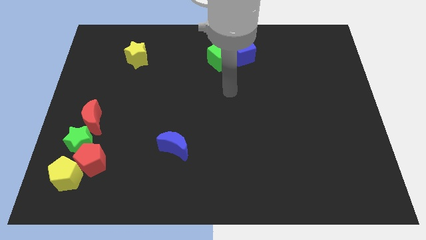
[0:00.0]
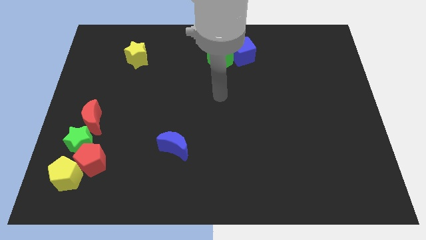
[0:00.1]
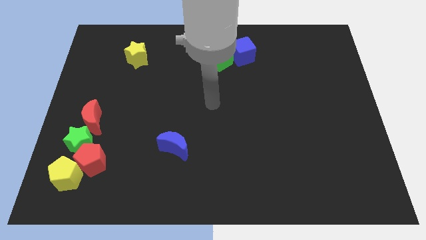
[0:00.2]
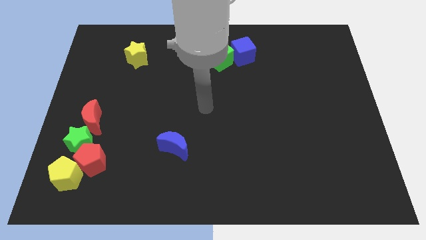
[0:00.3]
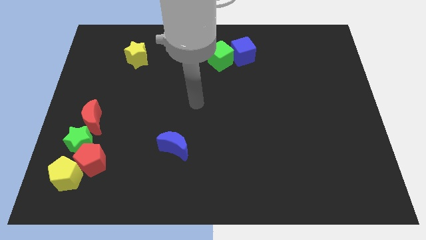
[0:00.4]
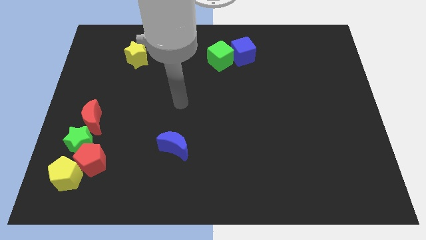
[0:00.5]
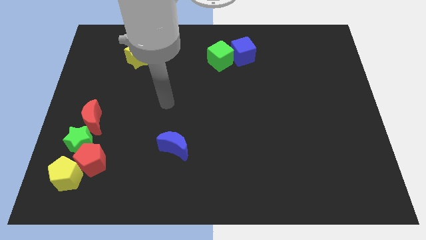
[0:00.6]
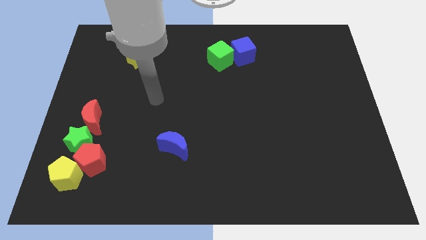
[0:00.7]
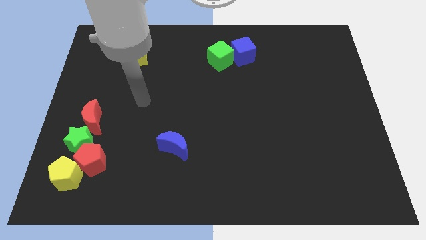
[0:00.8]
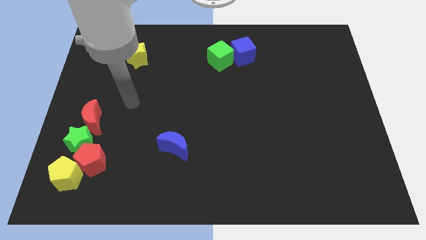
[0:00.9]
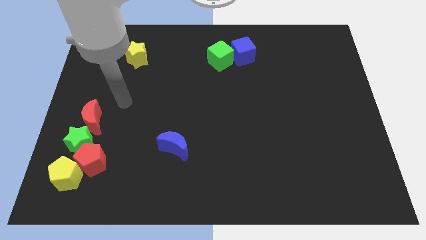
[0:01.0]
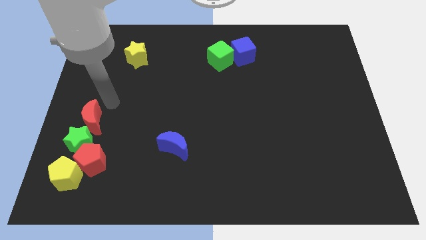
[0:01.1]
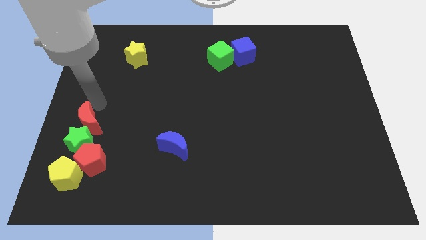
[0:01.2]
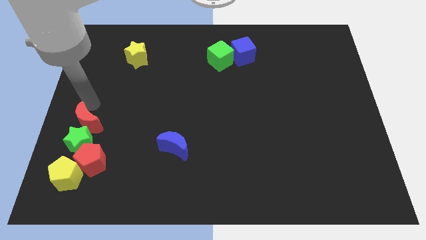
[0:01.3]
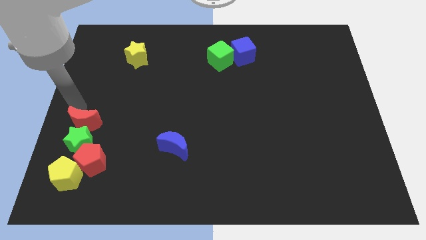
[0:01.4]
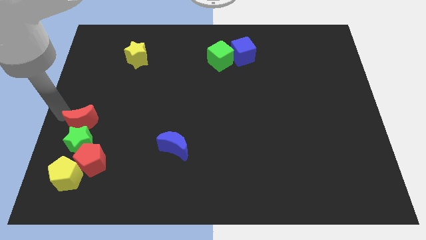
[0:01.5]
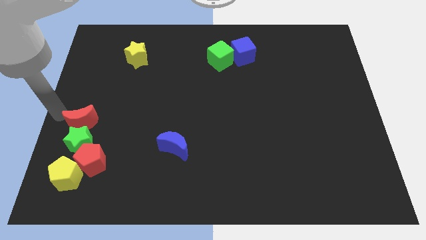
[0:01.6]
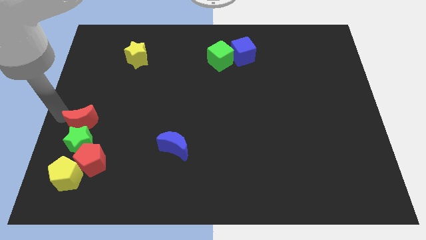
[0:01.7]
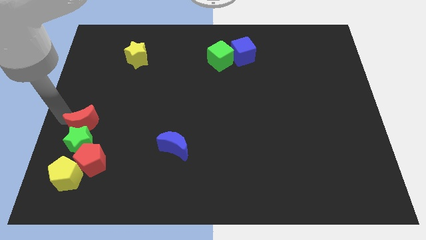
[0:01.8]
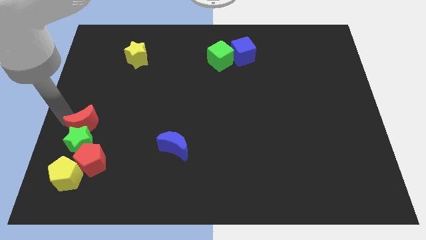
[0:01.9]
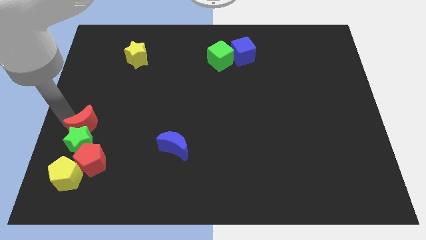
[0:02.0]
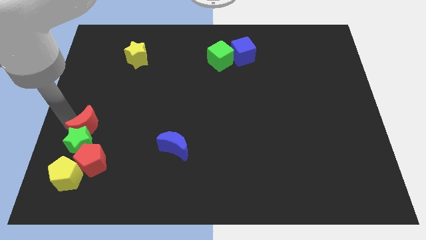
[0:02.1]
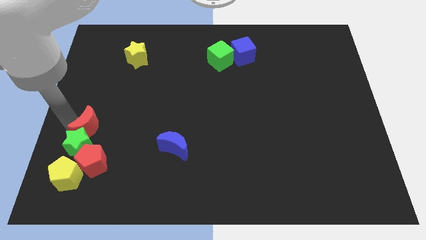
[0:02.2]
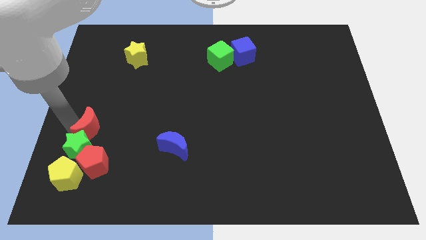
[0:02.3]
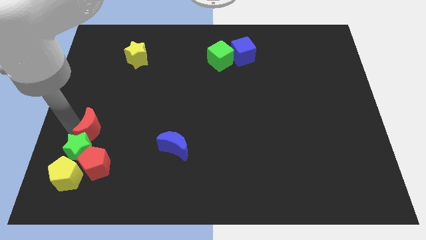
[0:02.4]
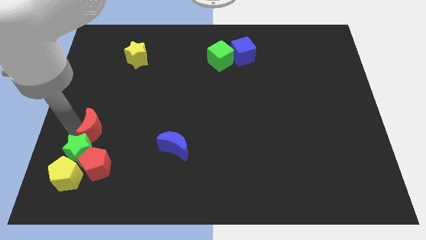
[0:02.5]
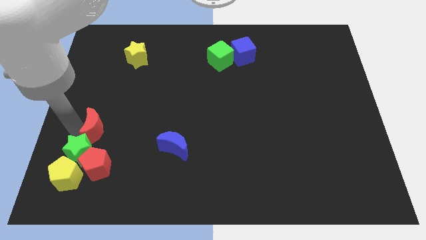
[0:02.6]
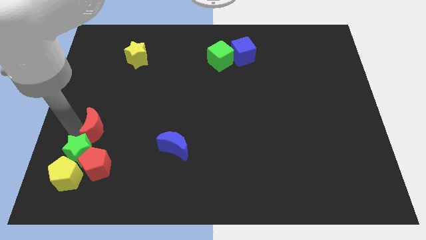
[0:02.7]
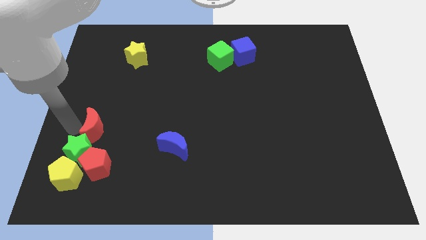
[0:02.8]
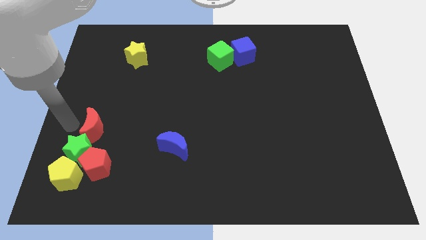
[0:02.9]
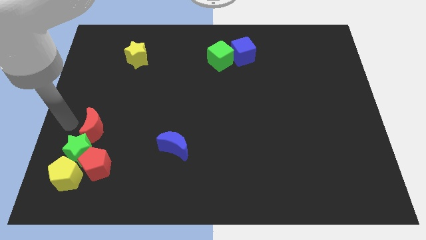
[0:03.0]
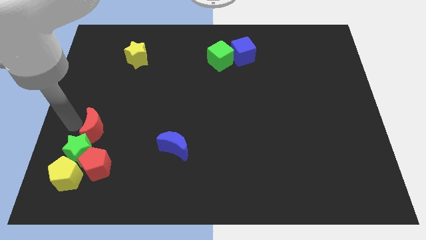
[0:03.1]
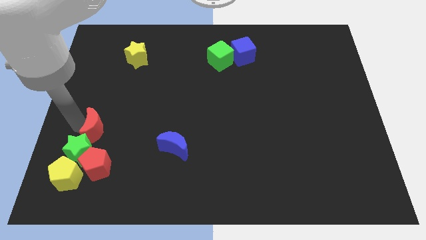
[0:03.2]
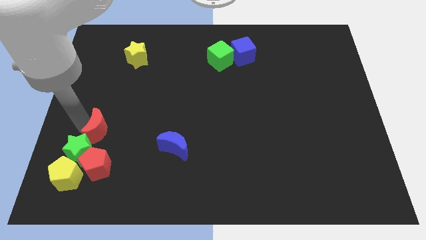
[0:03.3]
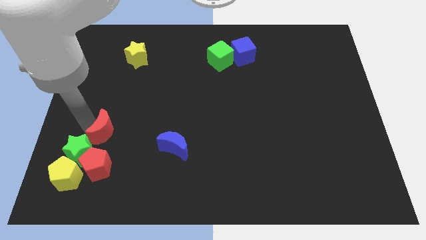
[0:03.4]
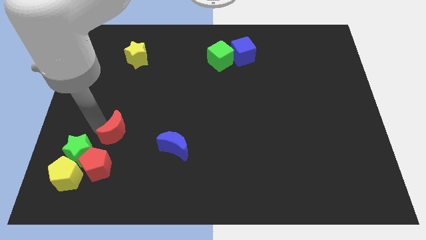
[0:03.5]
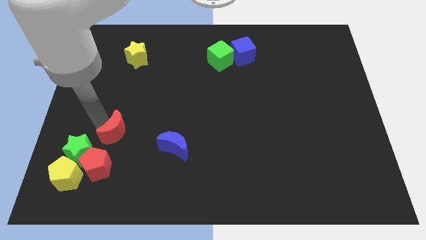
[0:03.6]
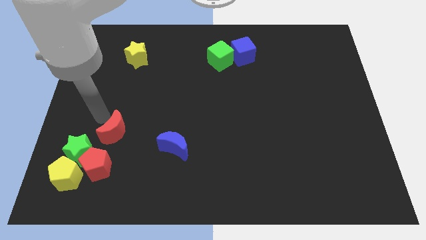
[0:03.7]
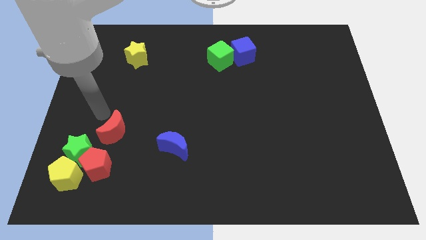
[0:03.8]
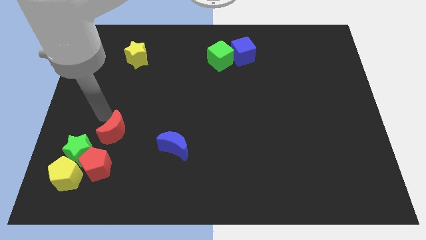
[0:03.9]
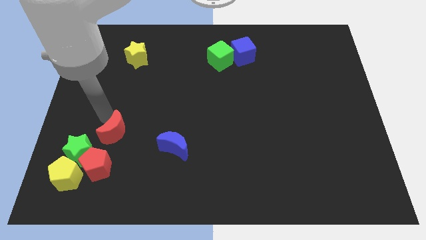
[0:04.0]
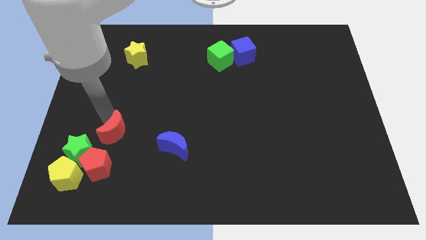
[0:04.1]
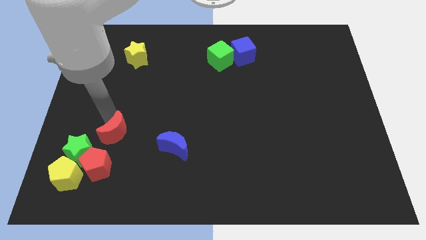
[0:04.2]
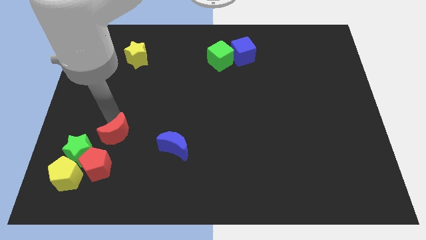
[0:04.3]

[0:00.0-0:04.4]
slide the red moon somewhat downwards and then right

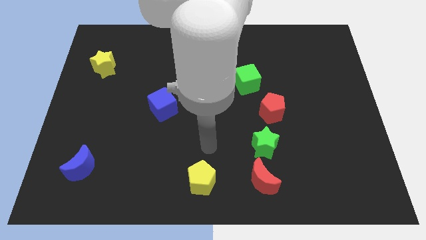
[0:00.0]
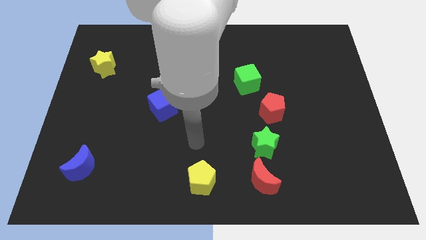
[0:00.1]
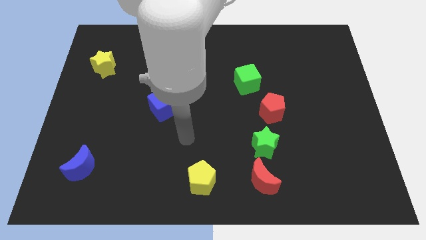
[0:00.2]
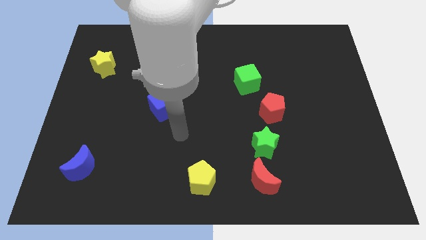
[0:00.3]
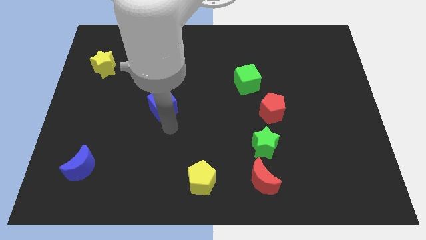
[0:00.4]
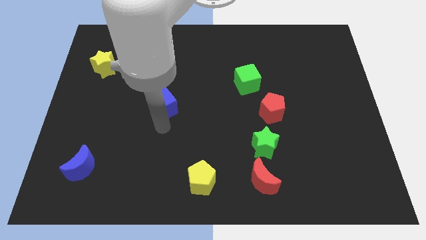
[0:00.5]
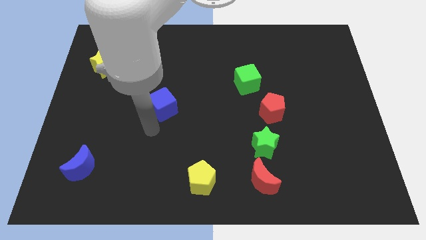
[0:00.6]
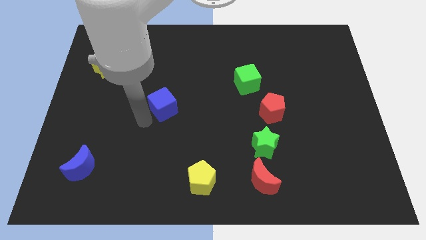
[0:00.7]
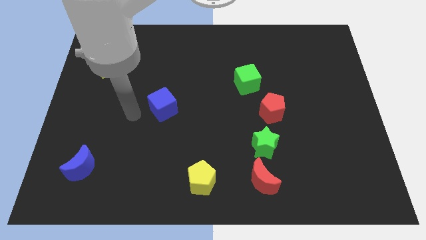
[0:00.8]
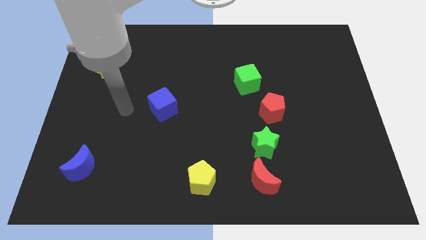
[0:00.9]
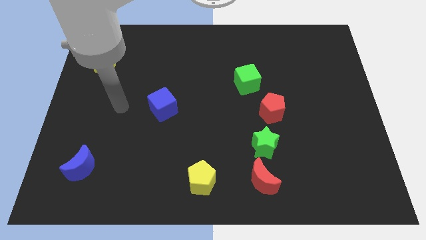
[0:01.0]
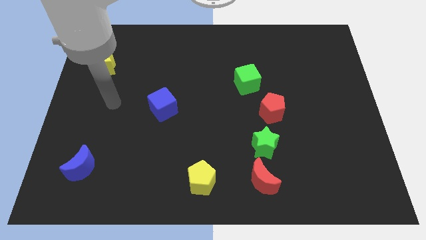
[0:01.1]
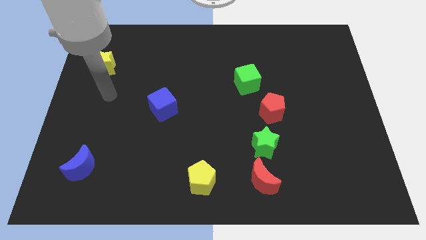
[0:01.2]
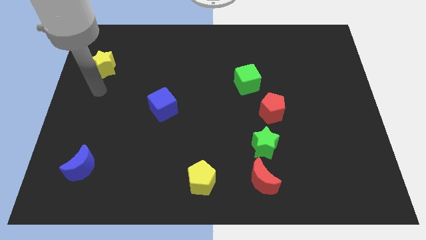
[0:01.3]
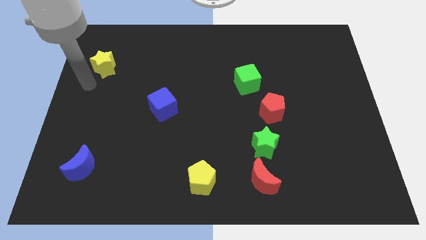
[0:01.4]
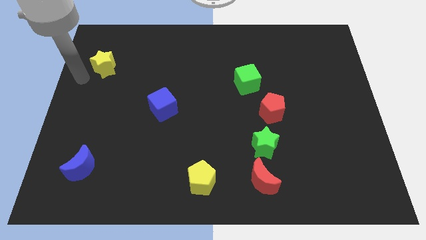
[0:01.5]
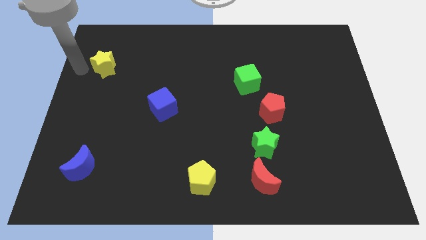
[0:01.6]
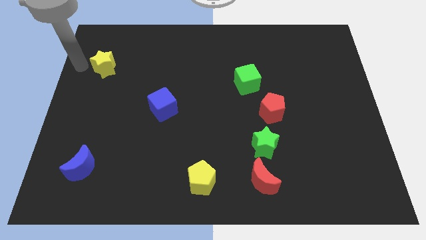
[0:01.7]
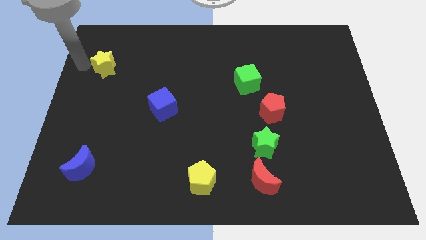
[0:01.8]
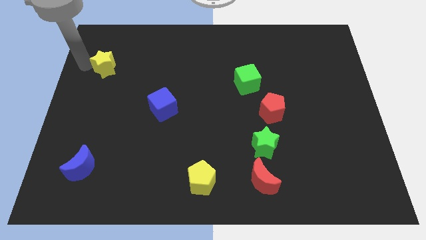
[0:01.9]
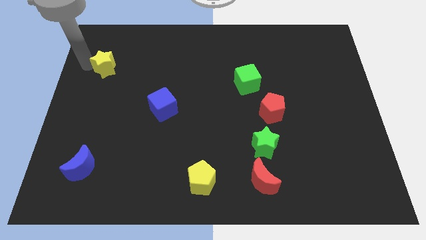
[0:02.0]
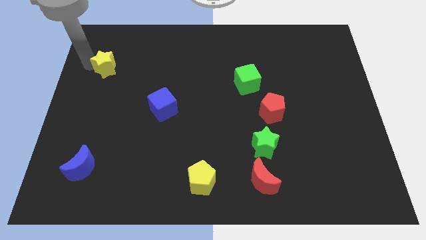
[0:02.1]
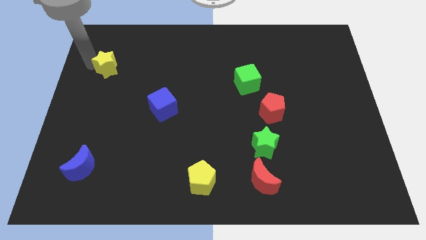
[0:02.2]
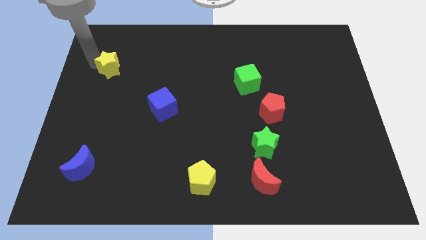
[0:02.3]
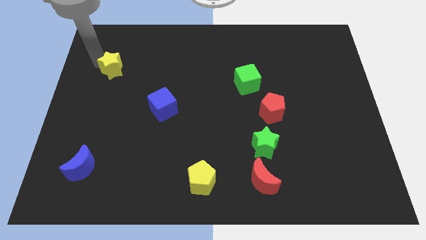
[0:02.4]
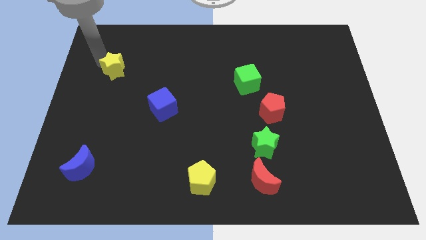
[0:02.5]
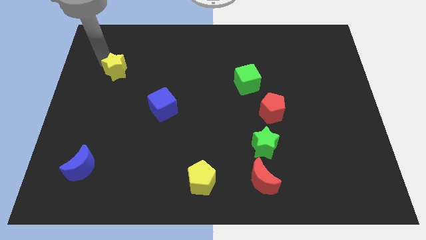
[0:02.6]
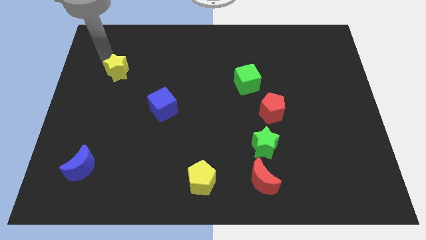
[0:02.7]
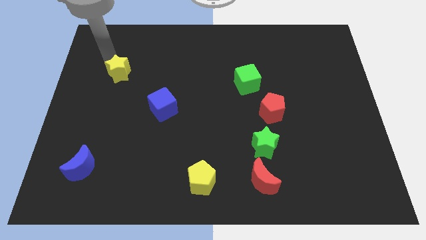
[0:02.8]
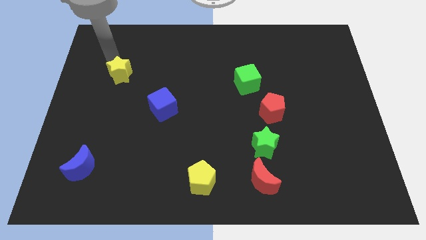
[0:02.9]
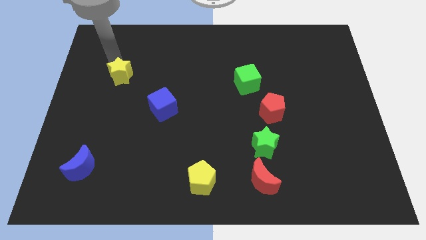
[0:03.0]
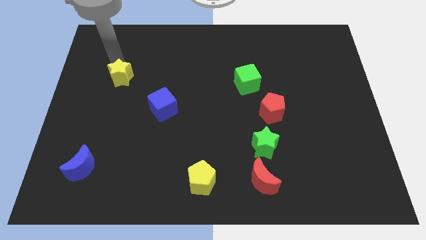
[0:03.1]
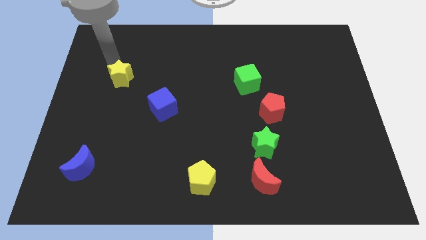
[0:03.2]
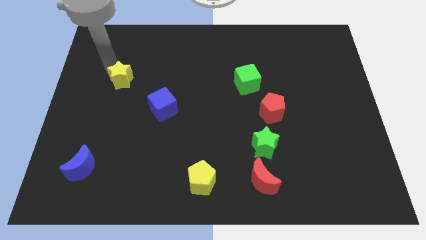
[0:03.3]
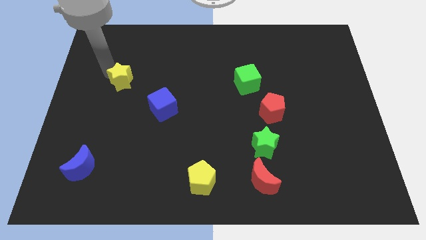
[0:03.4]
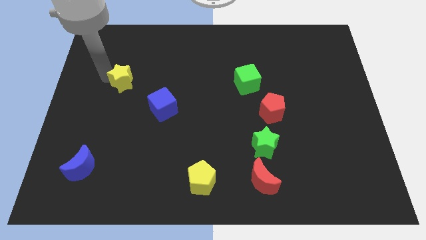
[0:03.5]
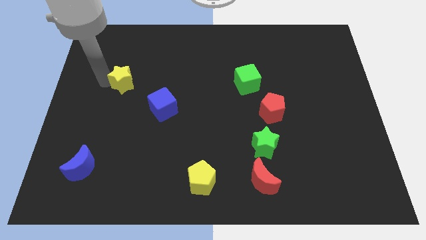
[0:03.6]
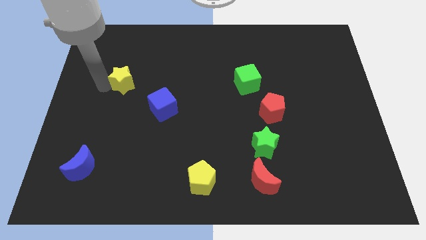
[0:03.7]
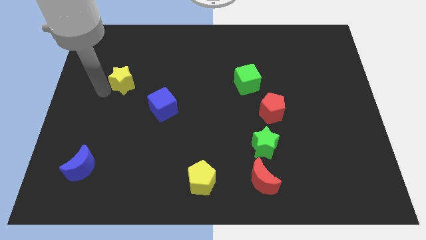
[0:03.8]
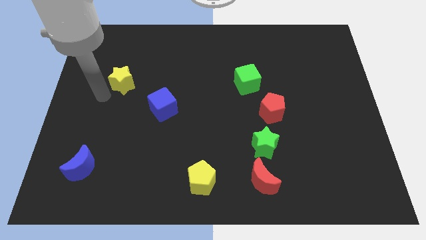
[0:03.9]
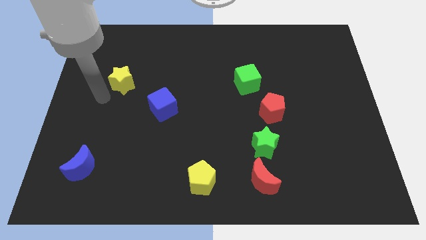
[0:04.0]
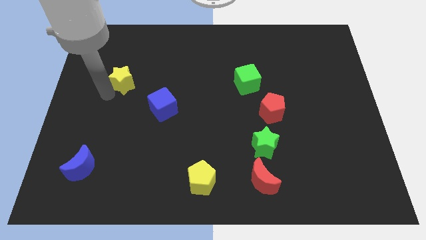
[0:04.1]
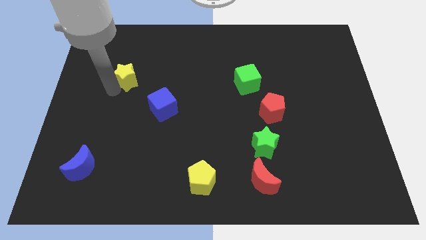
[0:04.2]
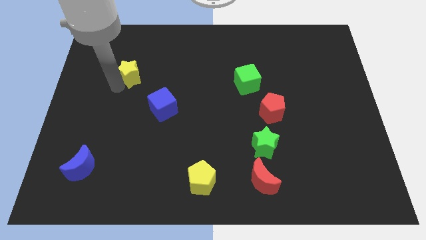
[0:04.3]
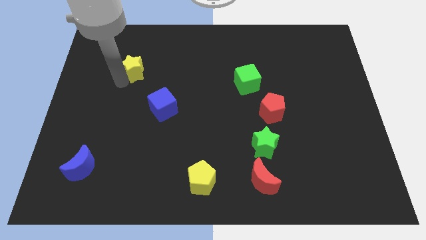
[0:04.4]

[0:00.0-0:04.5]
slide the yellow star a little bit to the right
